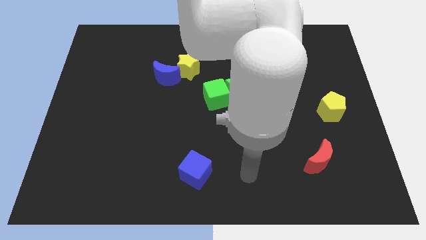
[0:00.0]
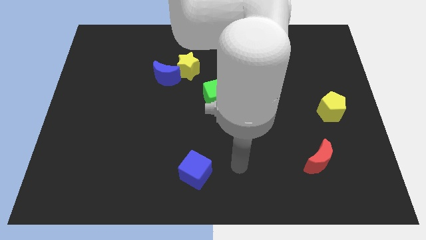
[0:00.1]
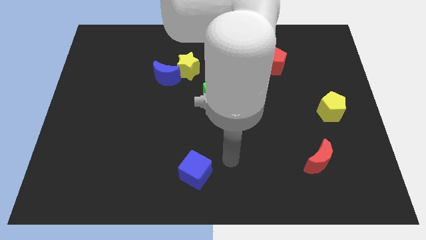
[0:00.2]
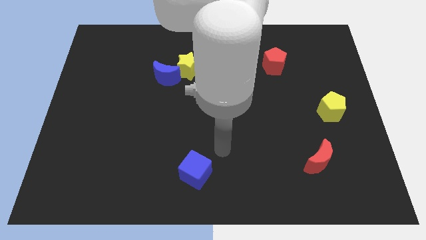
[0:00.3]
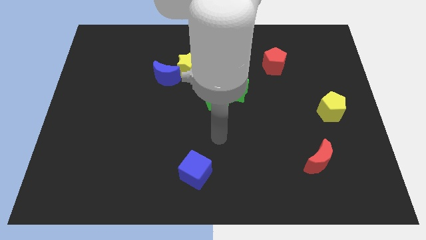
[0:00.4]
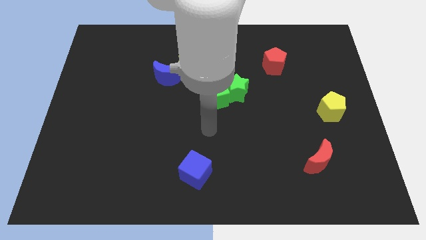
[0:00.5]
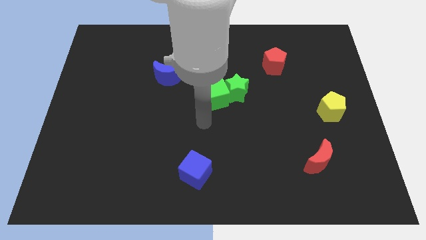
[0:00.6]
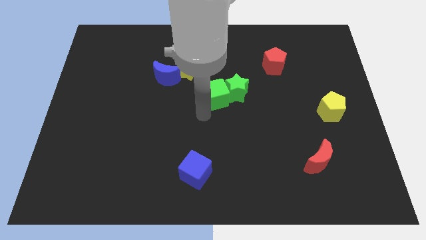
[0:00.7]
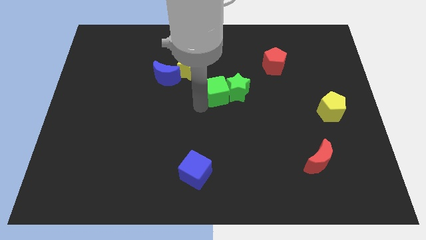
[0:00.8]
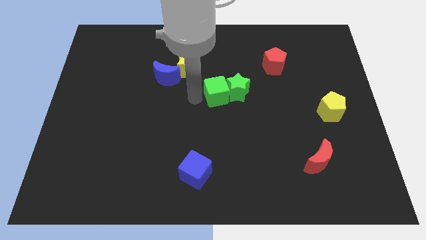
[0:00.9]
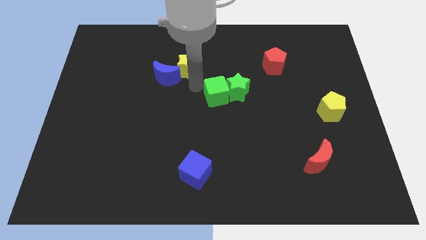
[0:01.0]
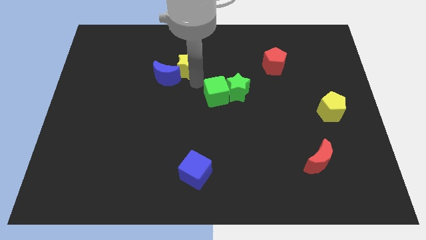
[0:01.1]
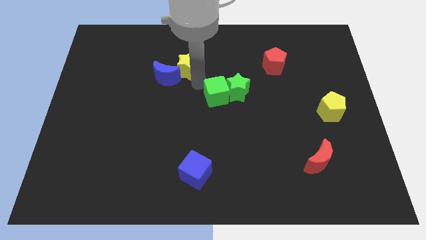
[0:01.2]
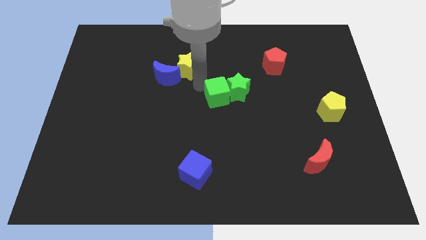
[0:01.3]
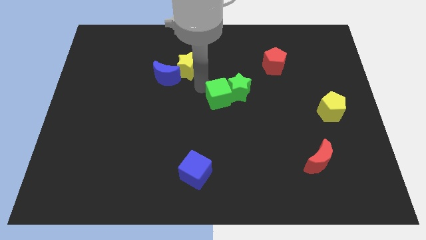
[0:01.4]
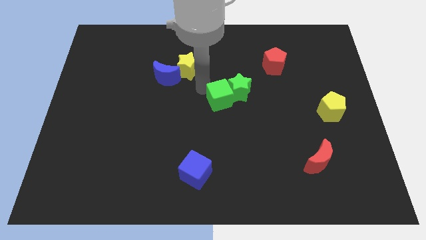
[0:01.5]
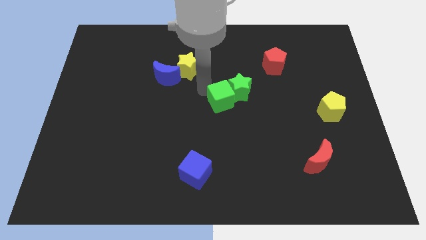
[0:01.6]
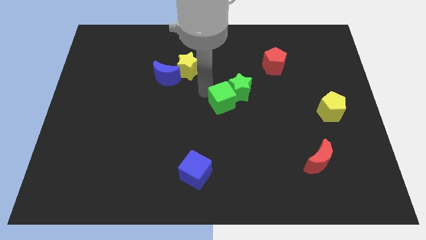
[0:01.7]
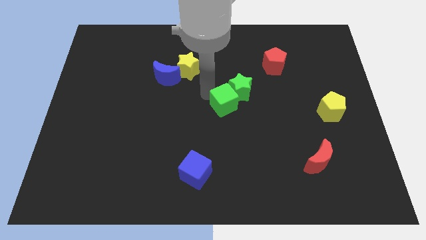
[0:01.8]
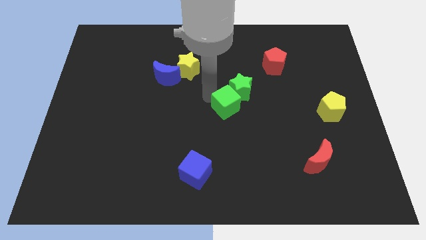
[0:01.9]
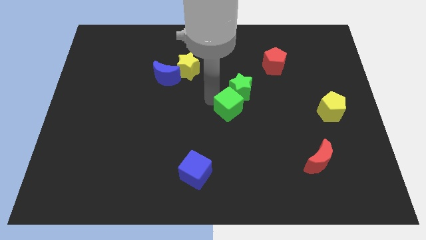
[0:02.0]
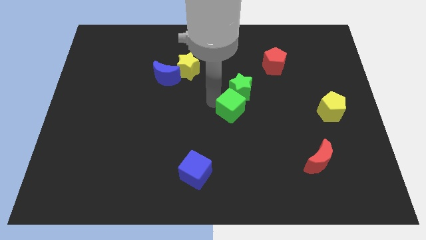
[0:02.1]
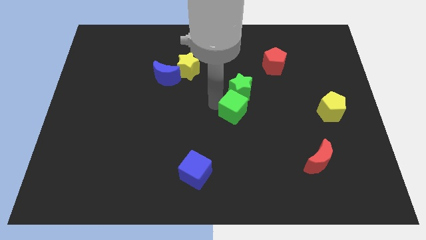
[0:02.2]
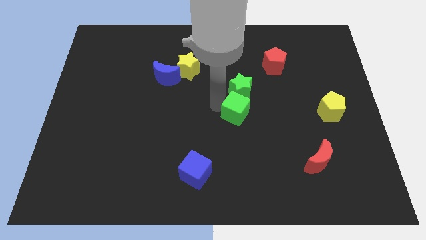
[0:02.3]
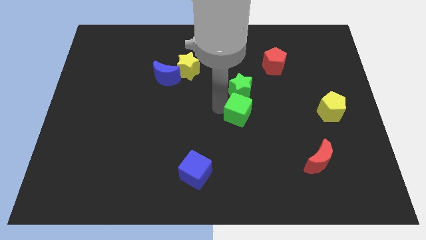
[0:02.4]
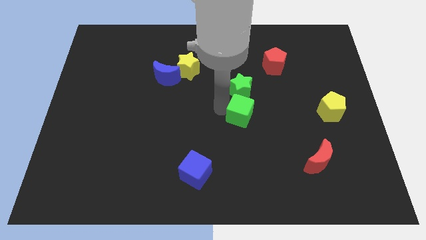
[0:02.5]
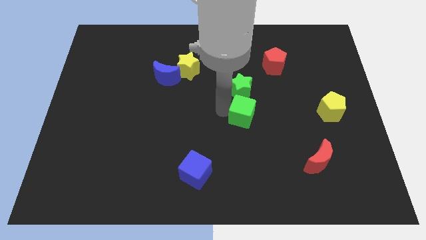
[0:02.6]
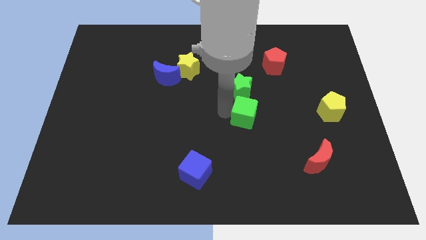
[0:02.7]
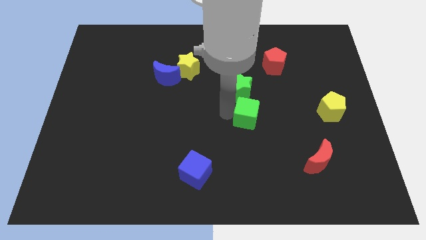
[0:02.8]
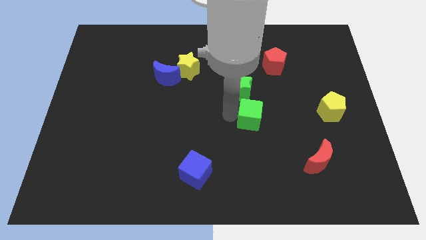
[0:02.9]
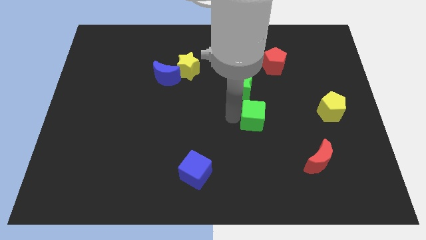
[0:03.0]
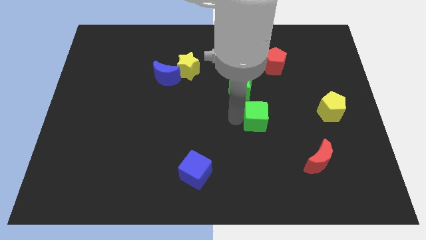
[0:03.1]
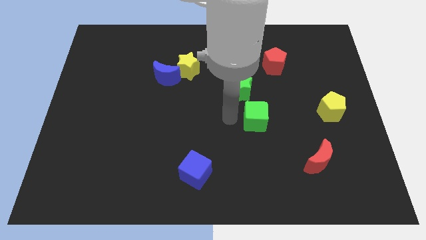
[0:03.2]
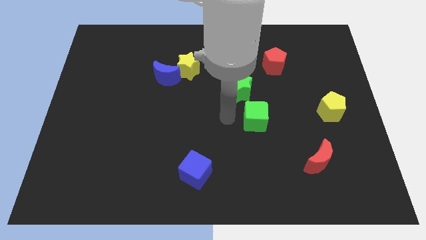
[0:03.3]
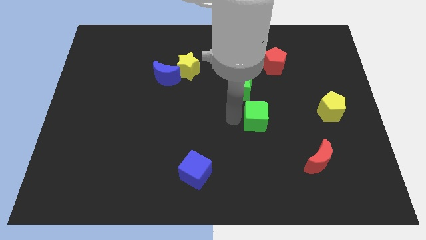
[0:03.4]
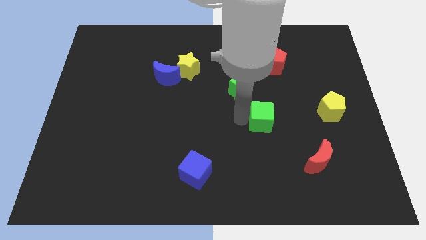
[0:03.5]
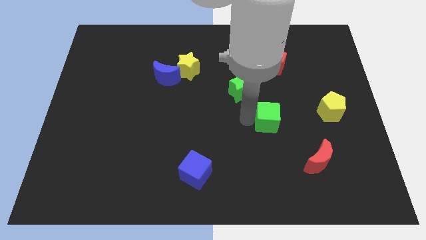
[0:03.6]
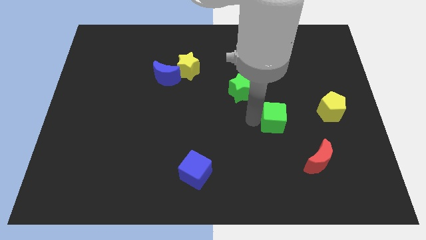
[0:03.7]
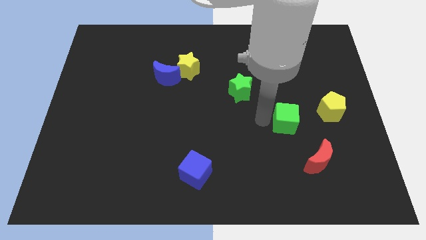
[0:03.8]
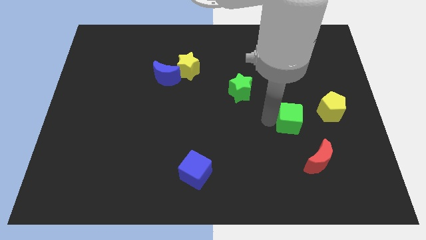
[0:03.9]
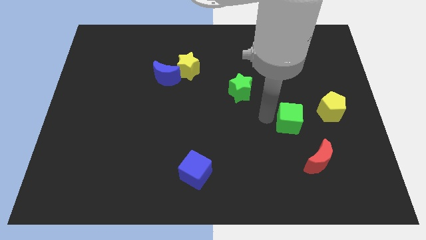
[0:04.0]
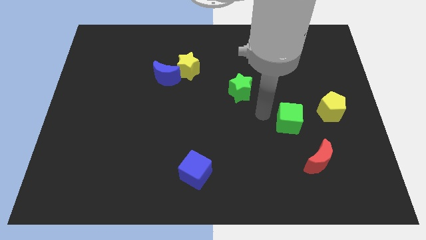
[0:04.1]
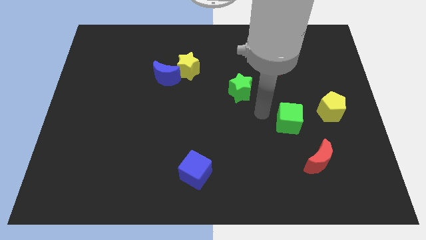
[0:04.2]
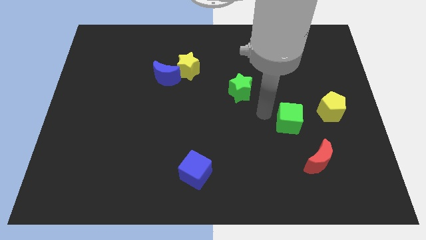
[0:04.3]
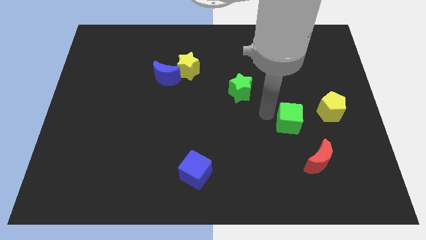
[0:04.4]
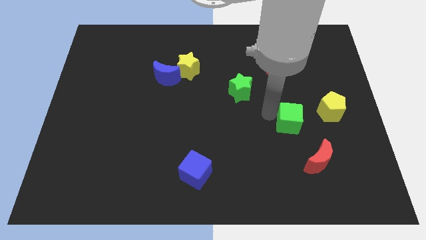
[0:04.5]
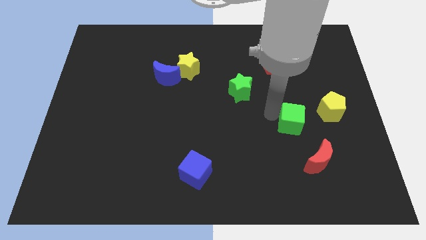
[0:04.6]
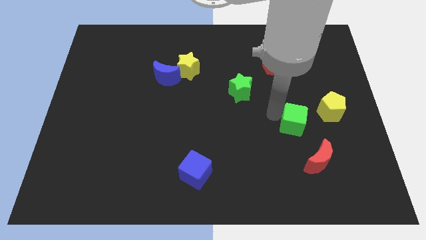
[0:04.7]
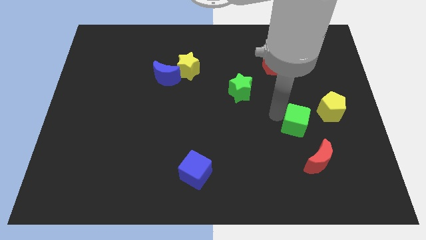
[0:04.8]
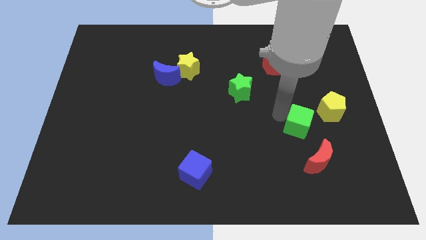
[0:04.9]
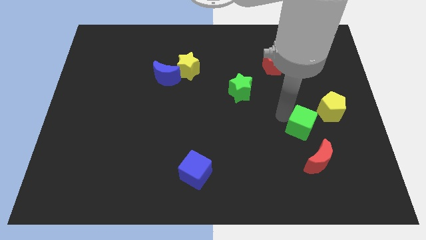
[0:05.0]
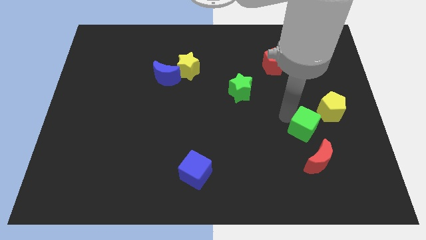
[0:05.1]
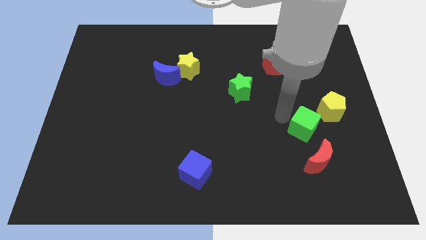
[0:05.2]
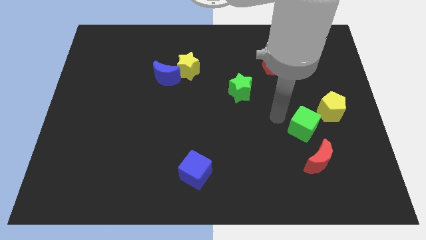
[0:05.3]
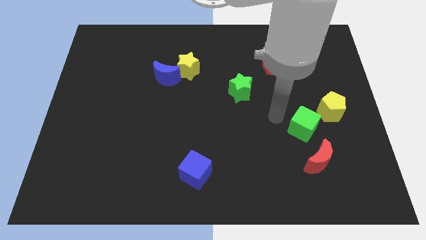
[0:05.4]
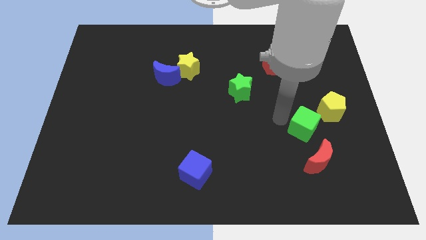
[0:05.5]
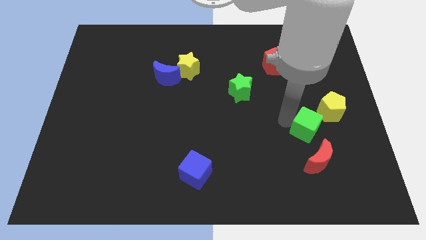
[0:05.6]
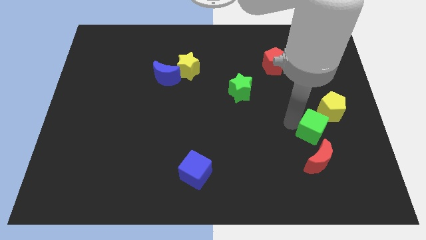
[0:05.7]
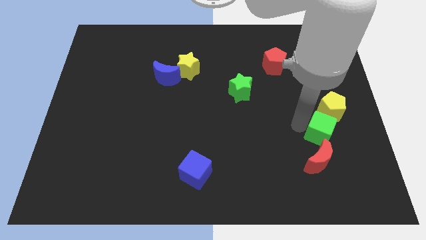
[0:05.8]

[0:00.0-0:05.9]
put the green cube diagonally up and to the right of the red moon

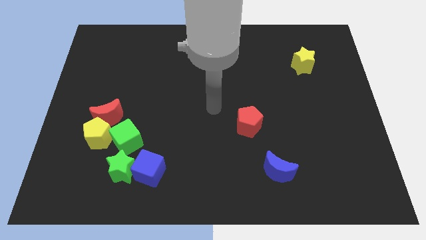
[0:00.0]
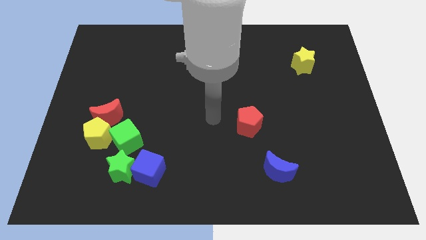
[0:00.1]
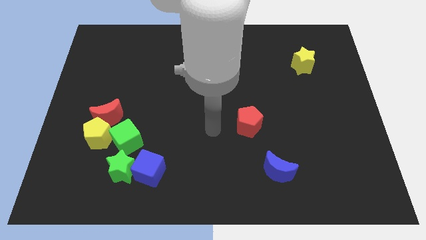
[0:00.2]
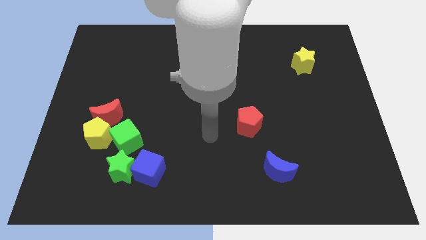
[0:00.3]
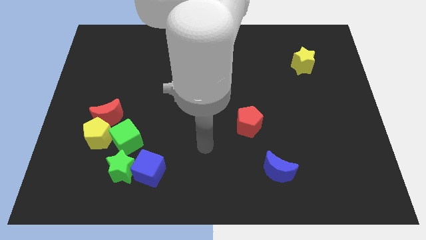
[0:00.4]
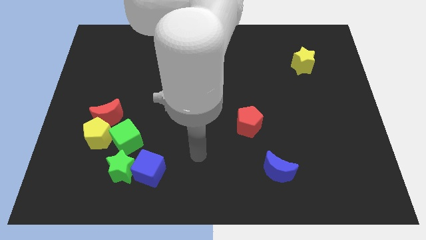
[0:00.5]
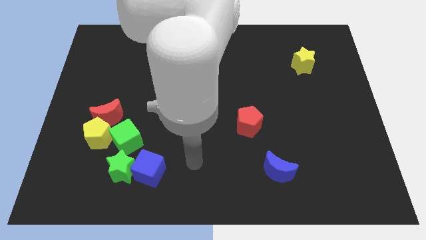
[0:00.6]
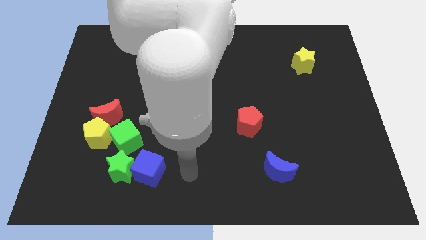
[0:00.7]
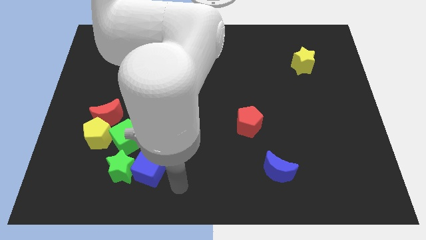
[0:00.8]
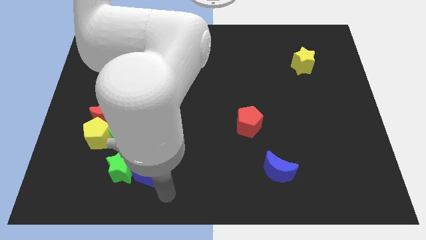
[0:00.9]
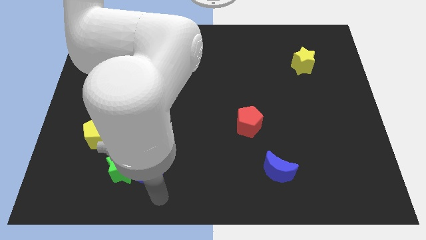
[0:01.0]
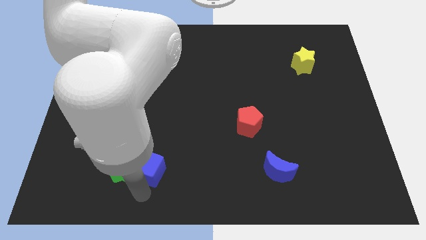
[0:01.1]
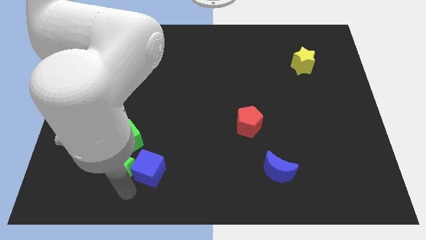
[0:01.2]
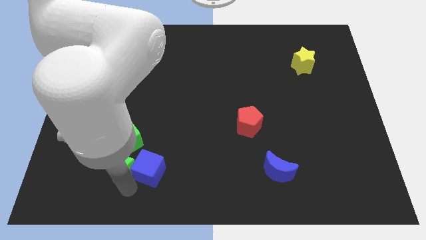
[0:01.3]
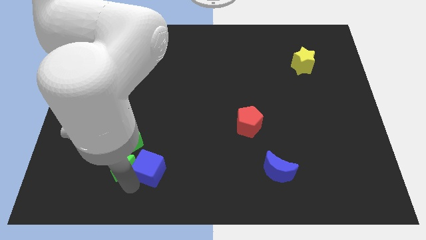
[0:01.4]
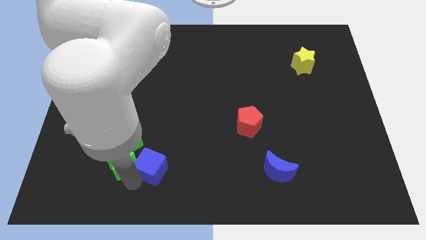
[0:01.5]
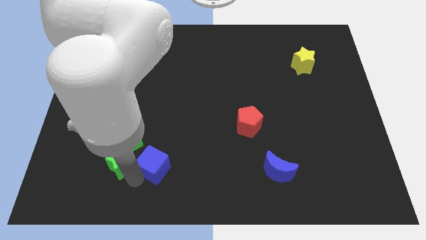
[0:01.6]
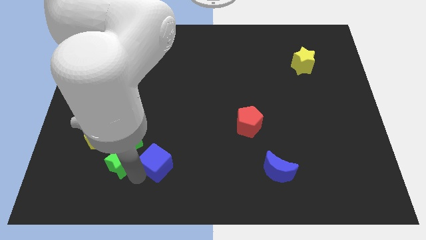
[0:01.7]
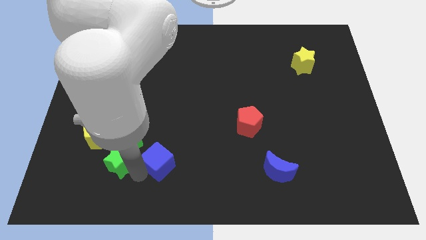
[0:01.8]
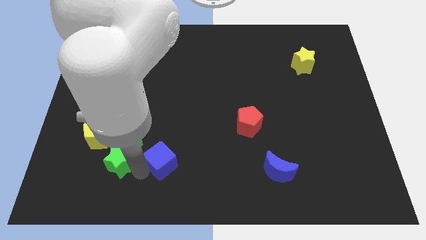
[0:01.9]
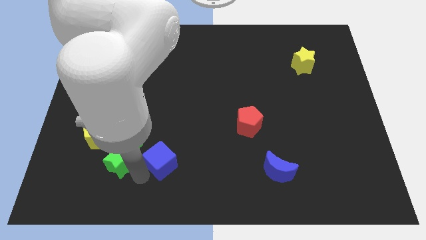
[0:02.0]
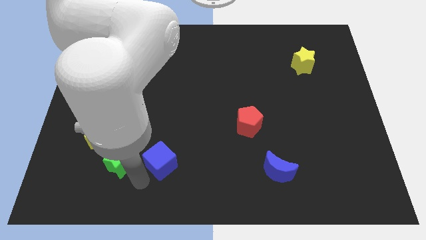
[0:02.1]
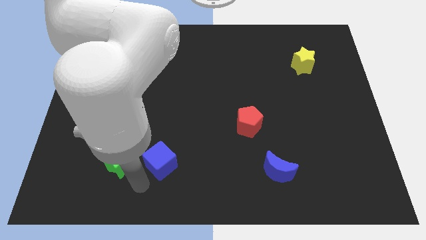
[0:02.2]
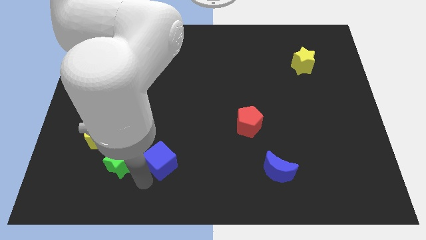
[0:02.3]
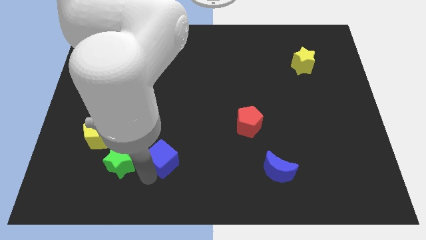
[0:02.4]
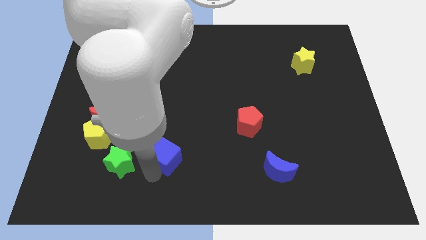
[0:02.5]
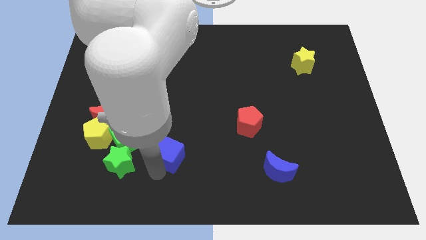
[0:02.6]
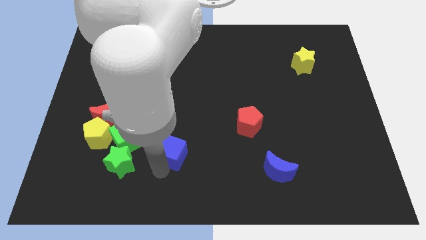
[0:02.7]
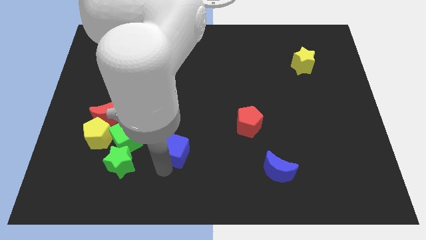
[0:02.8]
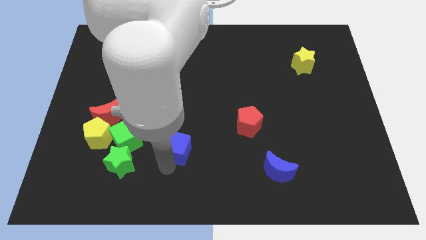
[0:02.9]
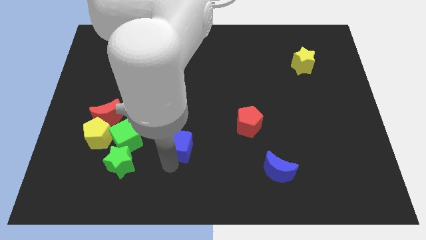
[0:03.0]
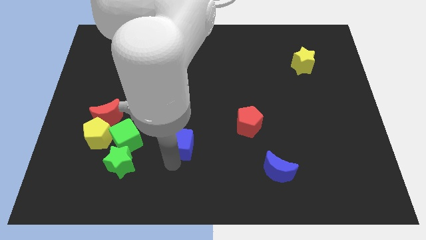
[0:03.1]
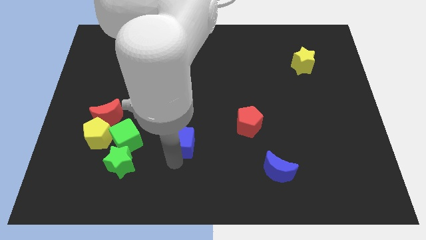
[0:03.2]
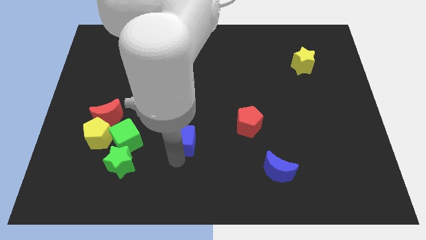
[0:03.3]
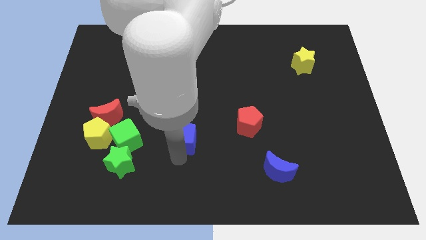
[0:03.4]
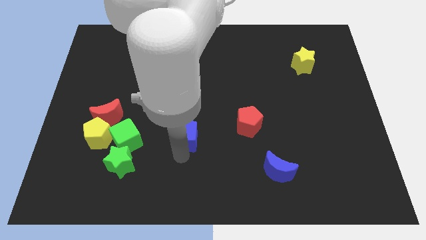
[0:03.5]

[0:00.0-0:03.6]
put the blue cube just left of the red pentagon
